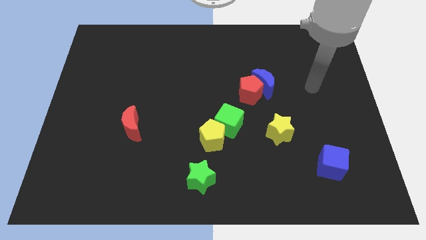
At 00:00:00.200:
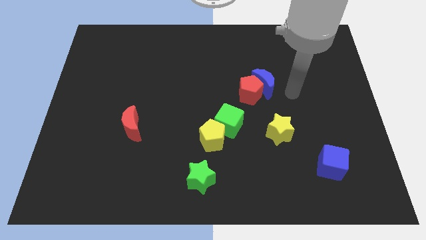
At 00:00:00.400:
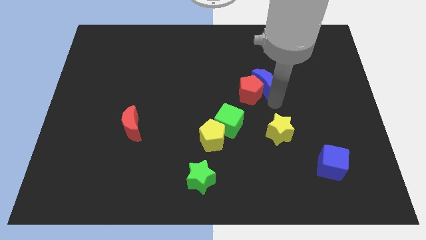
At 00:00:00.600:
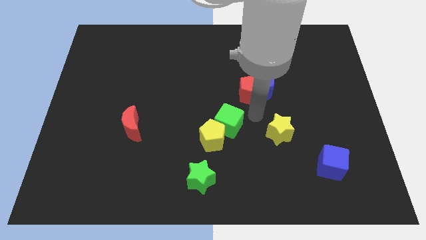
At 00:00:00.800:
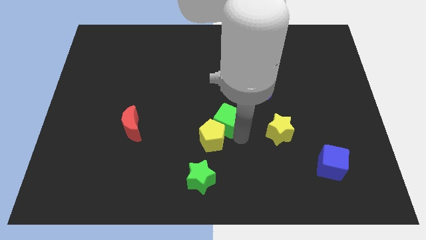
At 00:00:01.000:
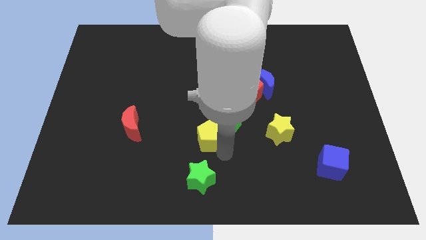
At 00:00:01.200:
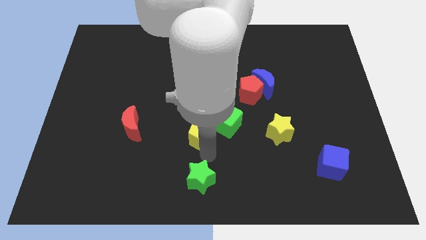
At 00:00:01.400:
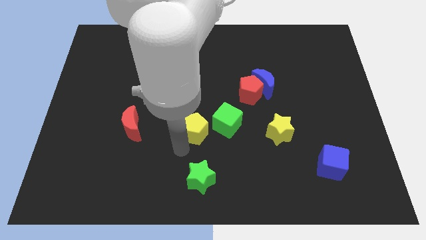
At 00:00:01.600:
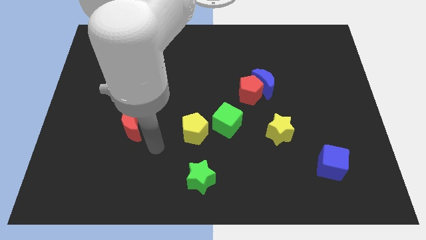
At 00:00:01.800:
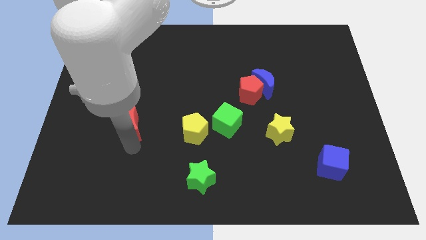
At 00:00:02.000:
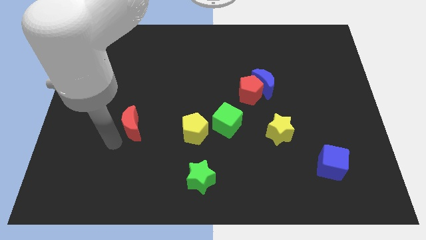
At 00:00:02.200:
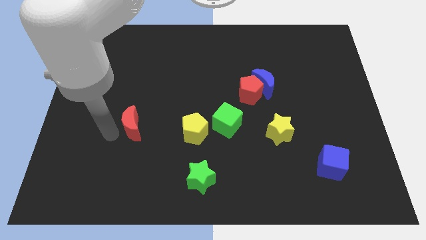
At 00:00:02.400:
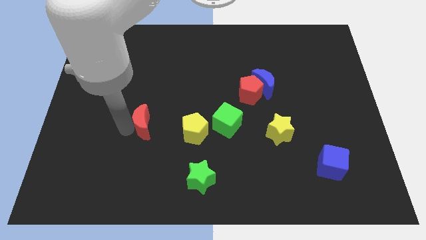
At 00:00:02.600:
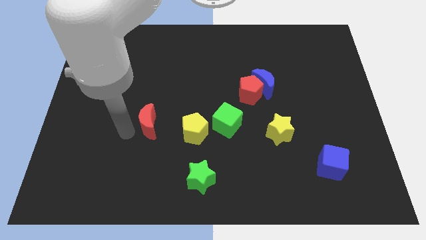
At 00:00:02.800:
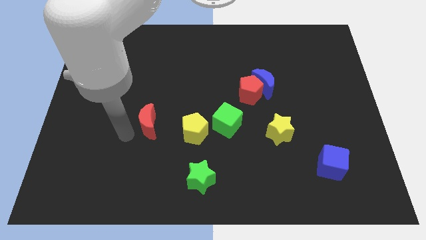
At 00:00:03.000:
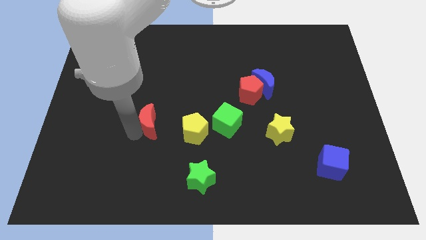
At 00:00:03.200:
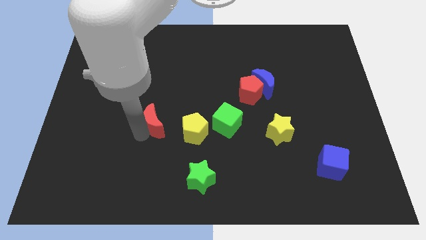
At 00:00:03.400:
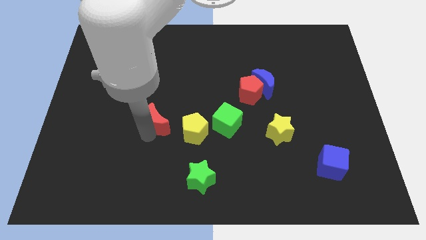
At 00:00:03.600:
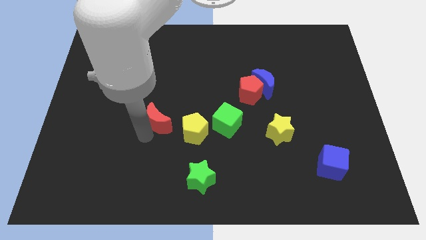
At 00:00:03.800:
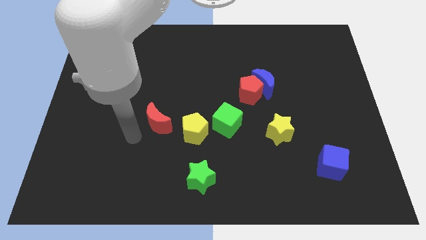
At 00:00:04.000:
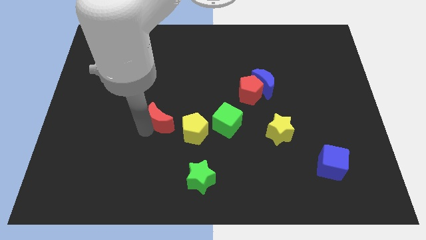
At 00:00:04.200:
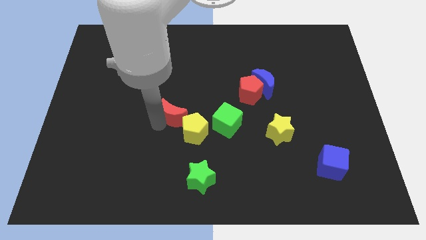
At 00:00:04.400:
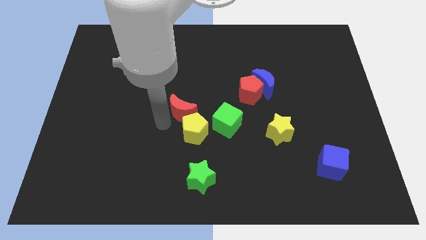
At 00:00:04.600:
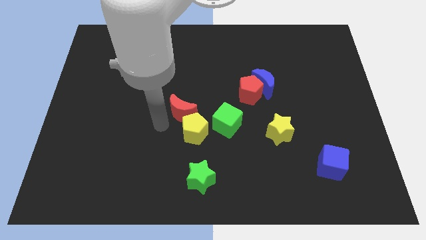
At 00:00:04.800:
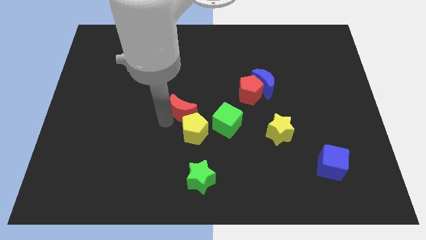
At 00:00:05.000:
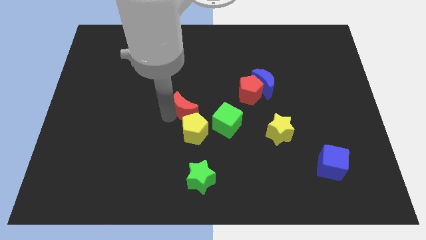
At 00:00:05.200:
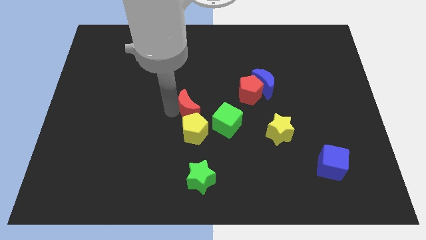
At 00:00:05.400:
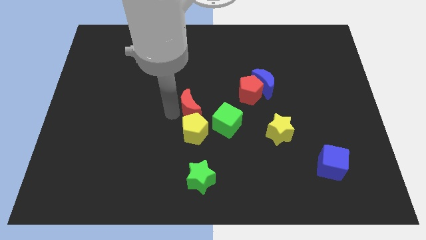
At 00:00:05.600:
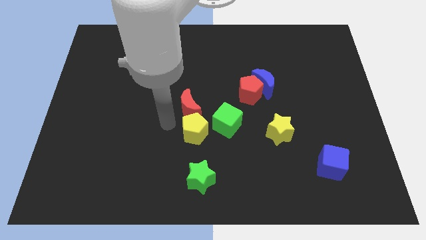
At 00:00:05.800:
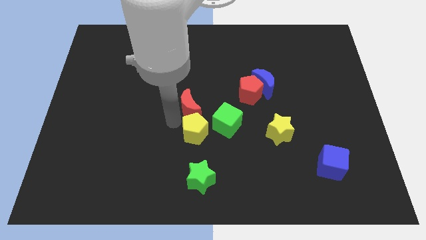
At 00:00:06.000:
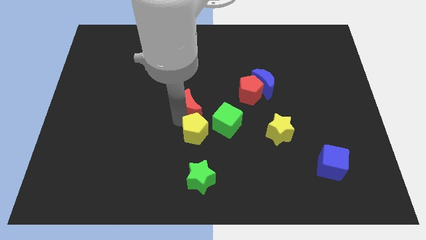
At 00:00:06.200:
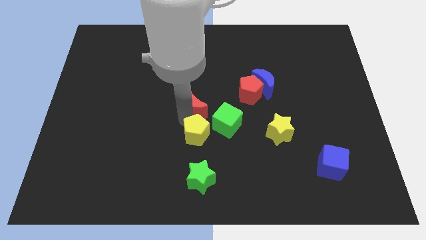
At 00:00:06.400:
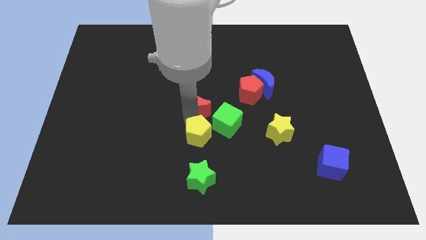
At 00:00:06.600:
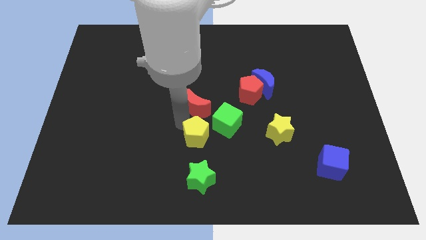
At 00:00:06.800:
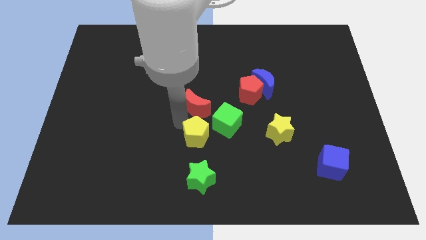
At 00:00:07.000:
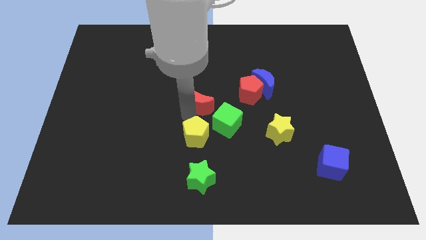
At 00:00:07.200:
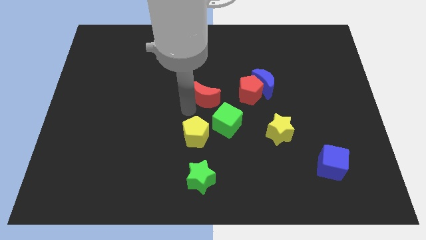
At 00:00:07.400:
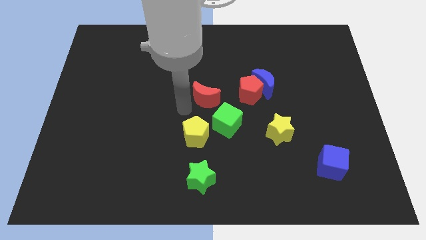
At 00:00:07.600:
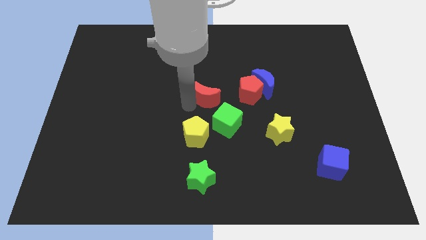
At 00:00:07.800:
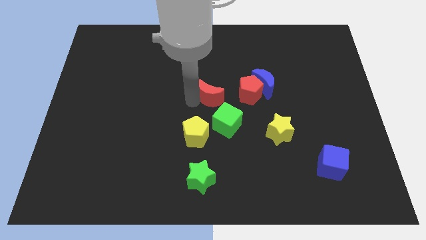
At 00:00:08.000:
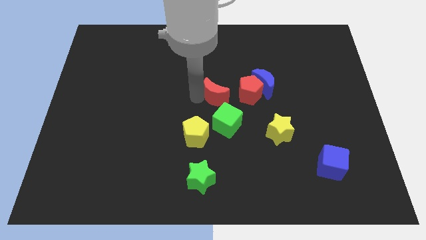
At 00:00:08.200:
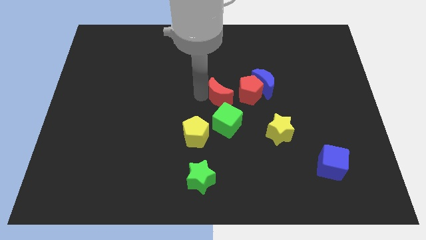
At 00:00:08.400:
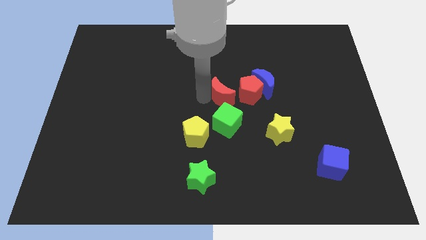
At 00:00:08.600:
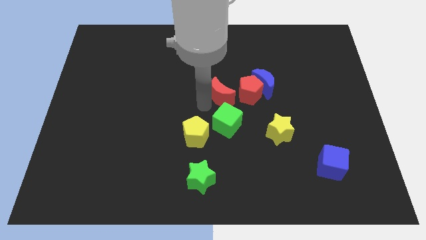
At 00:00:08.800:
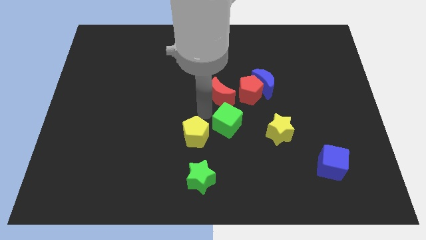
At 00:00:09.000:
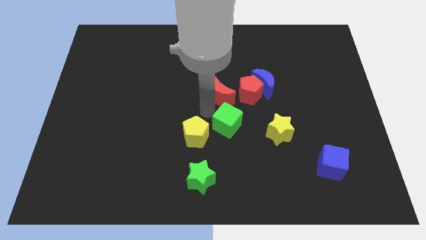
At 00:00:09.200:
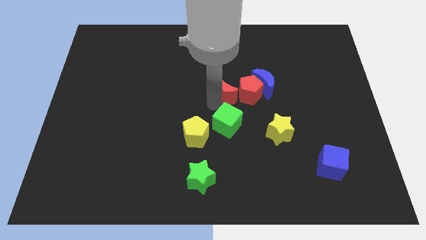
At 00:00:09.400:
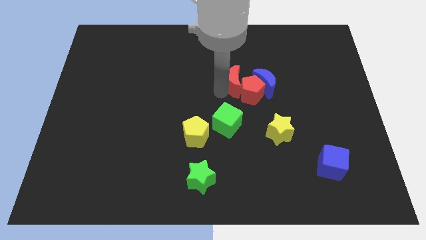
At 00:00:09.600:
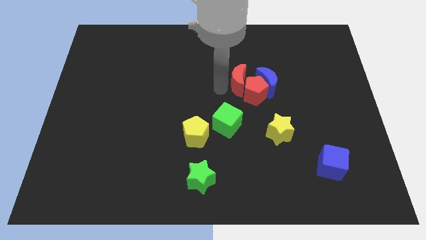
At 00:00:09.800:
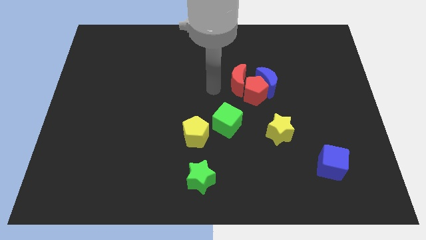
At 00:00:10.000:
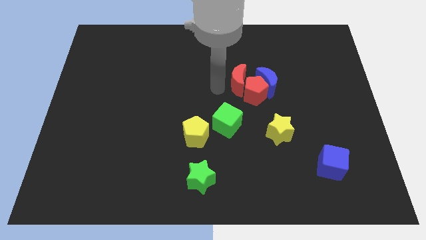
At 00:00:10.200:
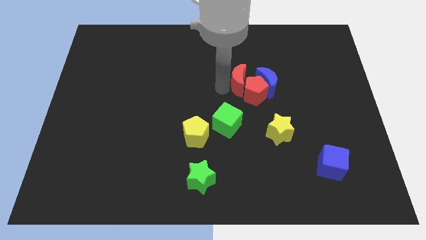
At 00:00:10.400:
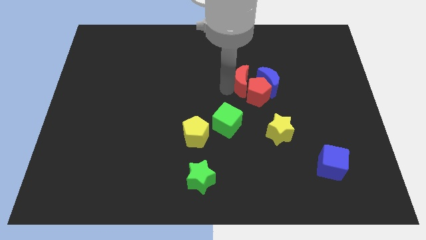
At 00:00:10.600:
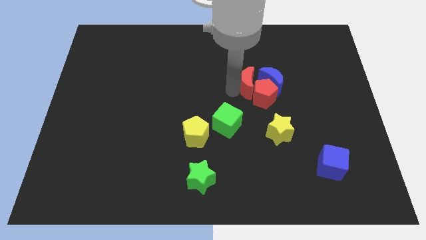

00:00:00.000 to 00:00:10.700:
push the red moon towards the blue moon

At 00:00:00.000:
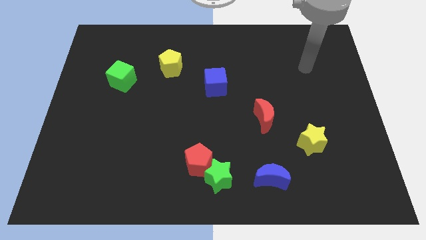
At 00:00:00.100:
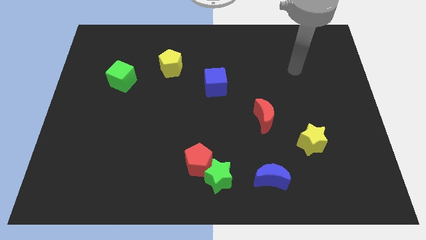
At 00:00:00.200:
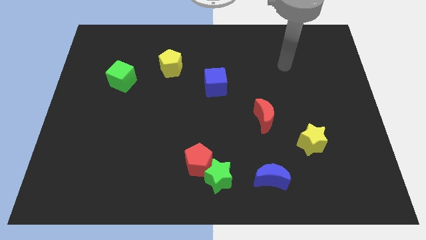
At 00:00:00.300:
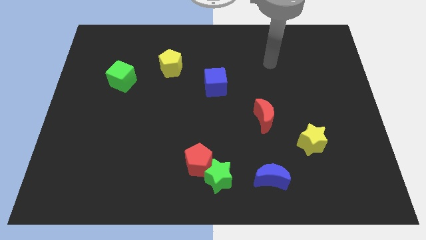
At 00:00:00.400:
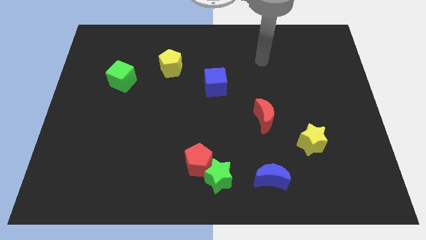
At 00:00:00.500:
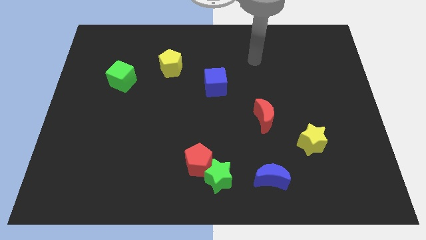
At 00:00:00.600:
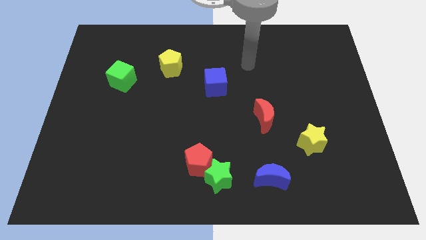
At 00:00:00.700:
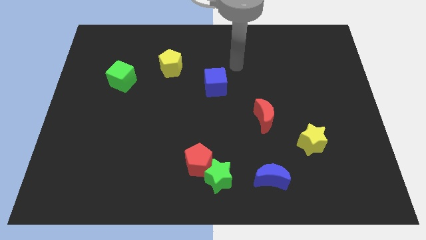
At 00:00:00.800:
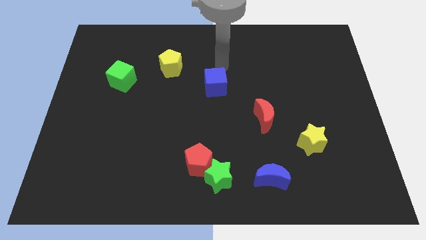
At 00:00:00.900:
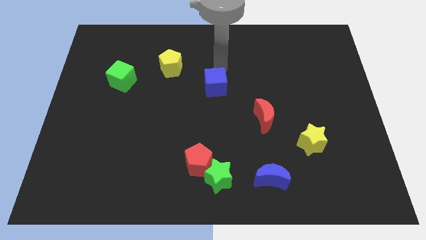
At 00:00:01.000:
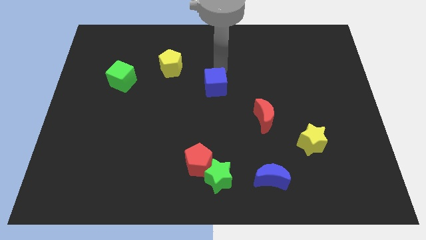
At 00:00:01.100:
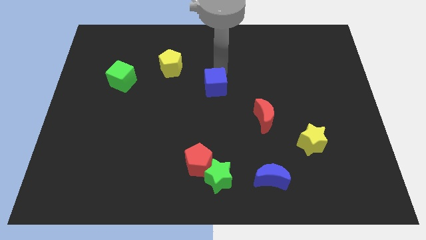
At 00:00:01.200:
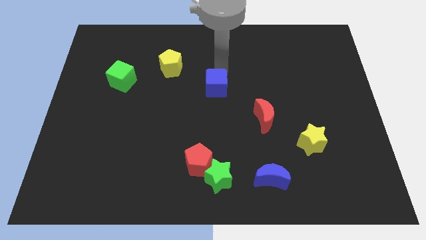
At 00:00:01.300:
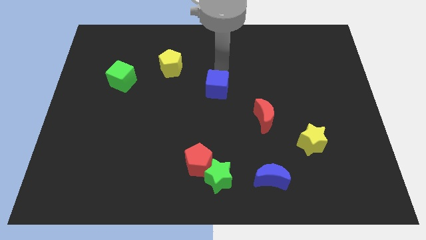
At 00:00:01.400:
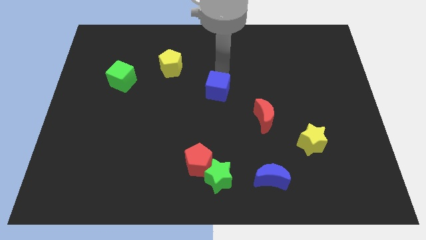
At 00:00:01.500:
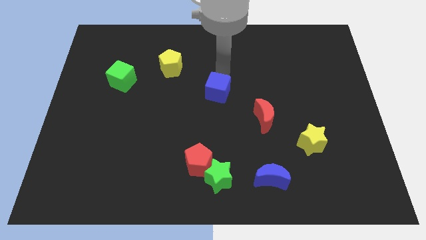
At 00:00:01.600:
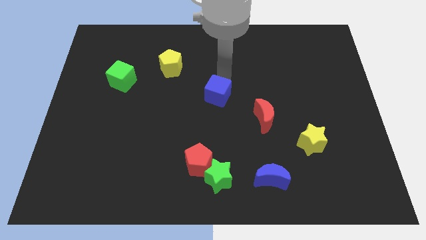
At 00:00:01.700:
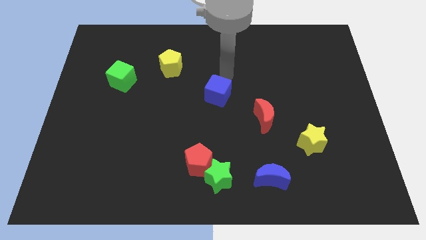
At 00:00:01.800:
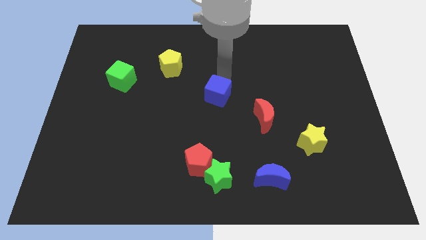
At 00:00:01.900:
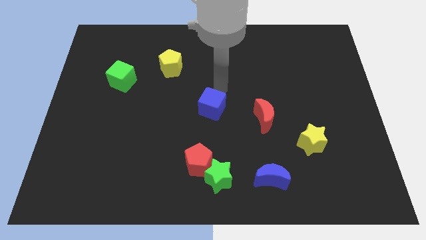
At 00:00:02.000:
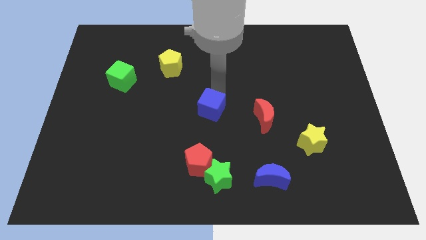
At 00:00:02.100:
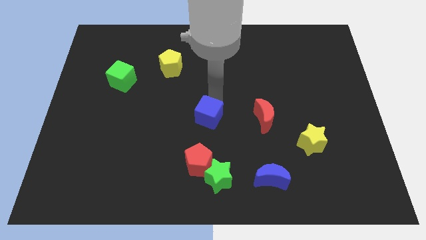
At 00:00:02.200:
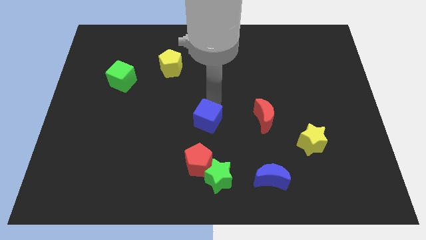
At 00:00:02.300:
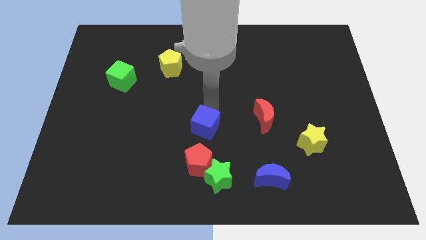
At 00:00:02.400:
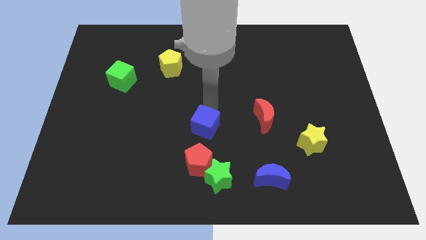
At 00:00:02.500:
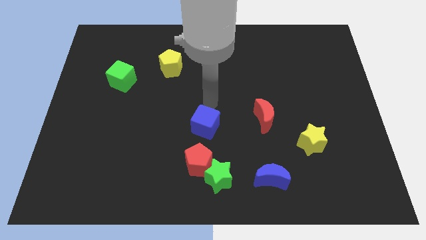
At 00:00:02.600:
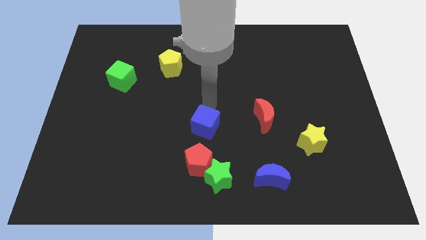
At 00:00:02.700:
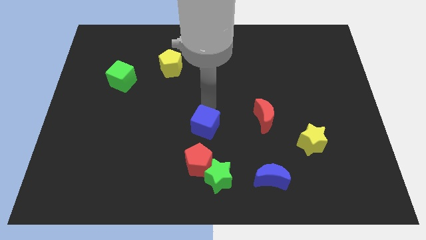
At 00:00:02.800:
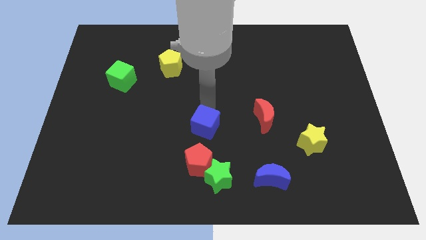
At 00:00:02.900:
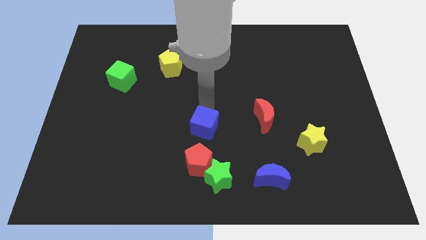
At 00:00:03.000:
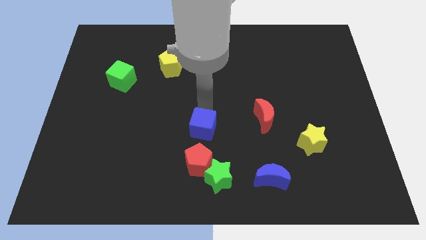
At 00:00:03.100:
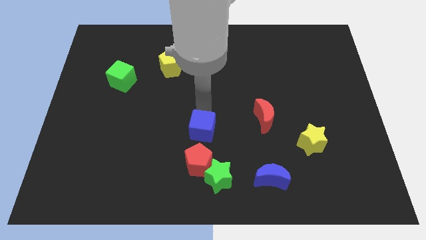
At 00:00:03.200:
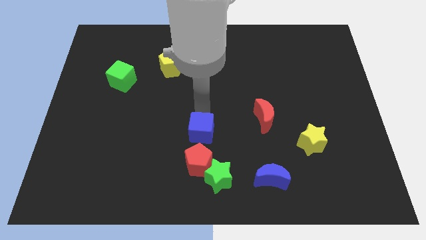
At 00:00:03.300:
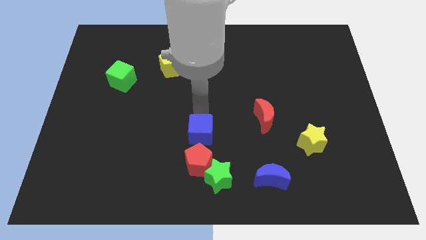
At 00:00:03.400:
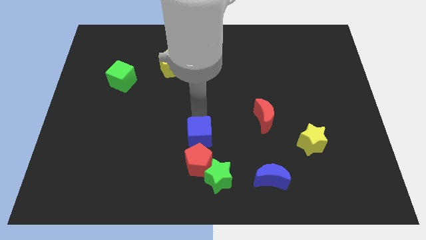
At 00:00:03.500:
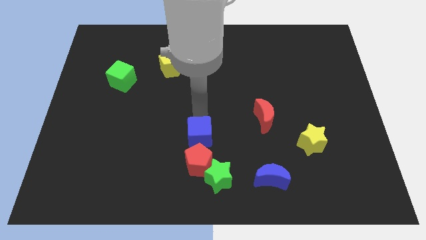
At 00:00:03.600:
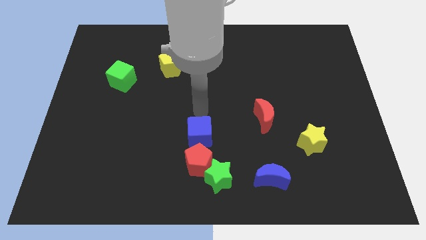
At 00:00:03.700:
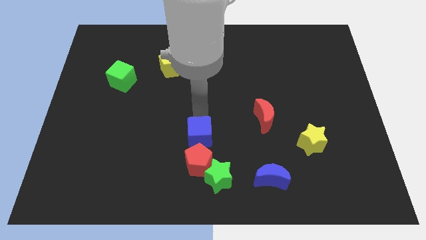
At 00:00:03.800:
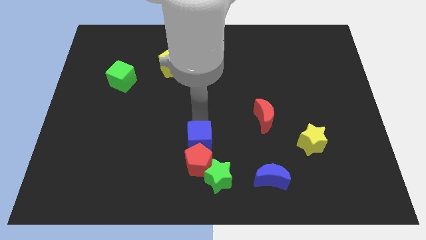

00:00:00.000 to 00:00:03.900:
push the blue cube towards the red pentagon
